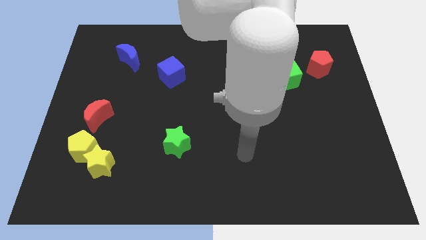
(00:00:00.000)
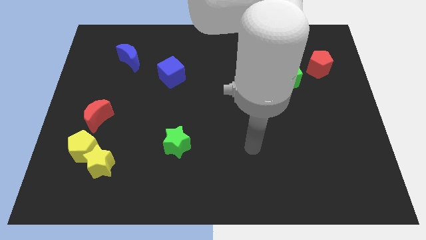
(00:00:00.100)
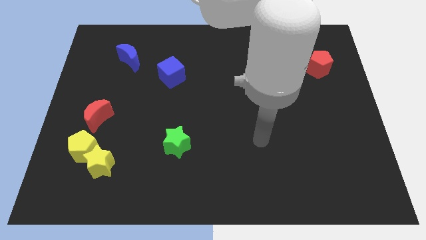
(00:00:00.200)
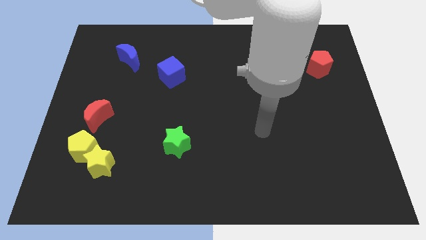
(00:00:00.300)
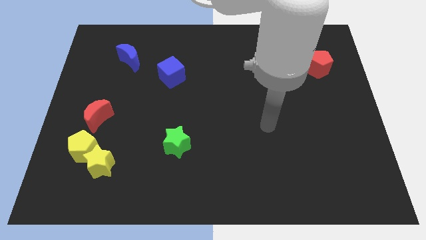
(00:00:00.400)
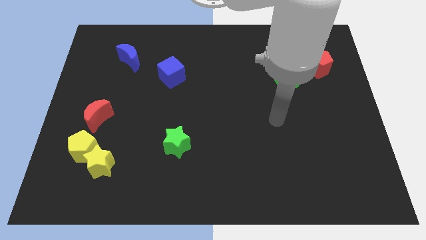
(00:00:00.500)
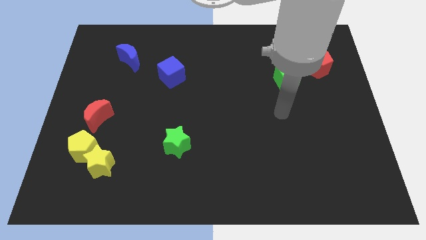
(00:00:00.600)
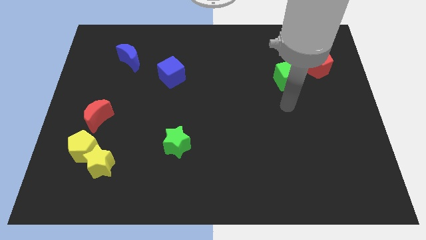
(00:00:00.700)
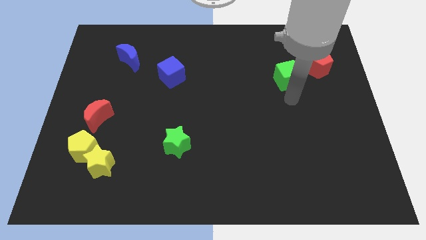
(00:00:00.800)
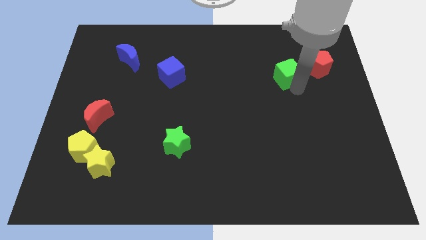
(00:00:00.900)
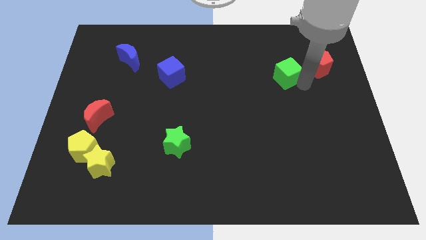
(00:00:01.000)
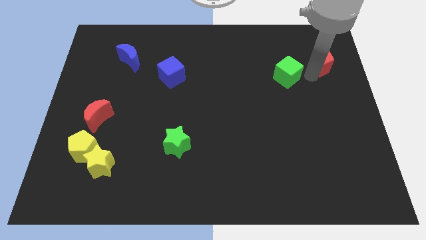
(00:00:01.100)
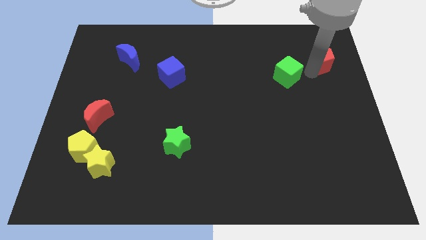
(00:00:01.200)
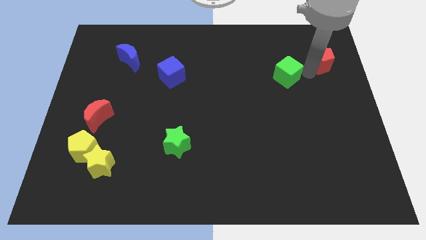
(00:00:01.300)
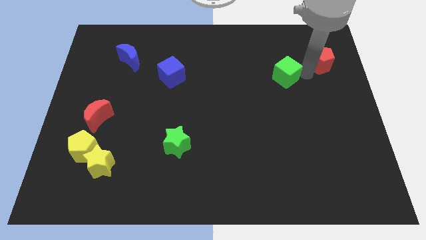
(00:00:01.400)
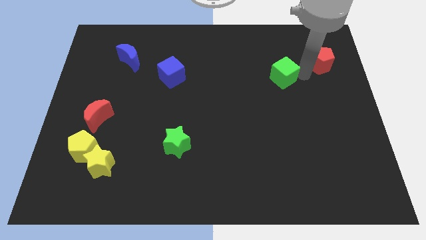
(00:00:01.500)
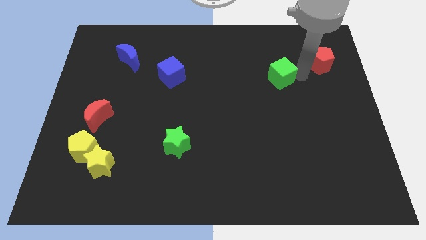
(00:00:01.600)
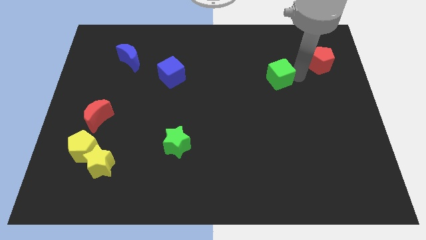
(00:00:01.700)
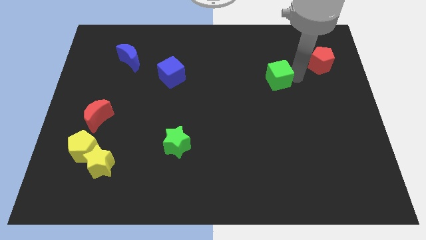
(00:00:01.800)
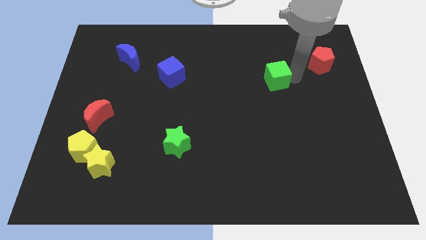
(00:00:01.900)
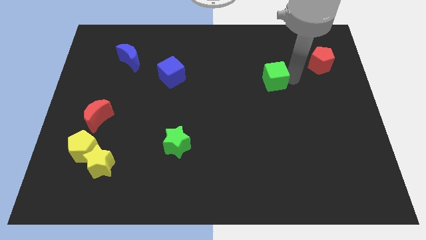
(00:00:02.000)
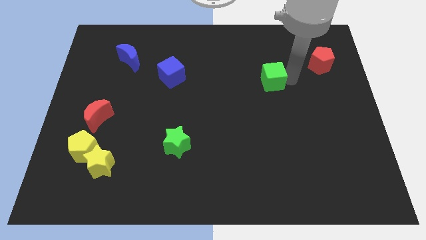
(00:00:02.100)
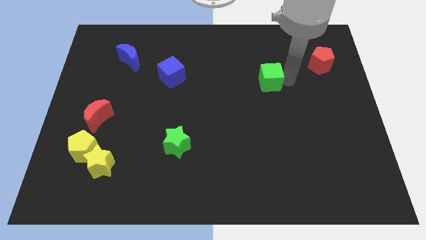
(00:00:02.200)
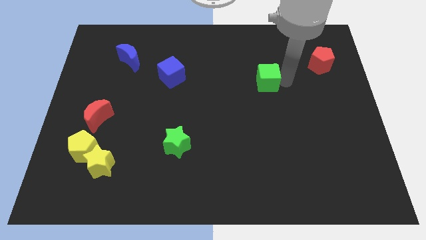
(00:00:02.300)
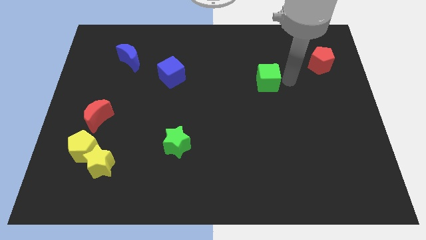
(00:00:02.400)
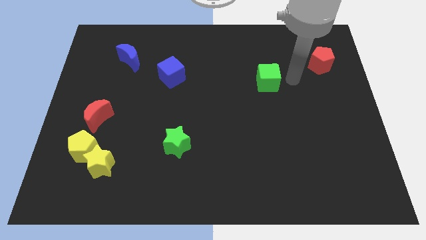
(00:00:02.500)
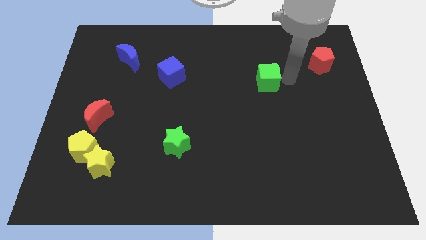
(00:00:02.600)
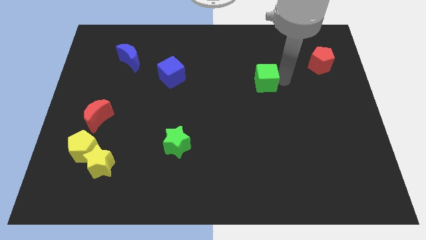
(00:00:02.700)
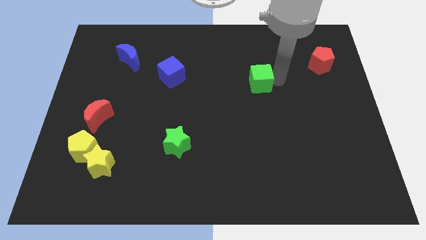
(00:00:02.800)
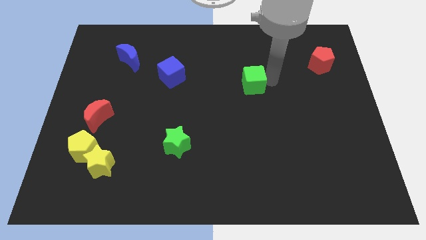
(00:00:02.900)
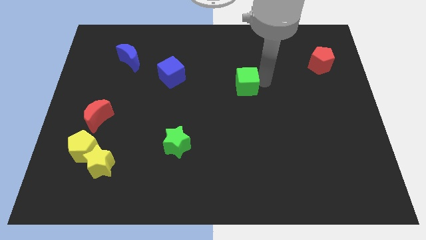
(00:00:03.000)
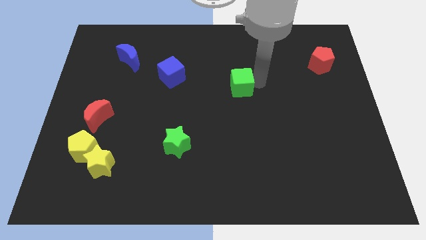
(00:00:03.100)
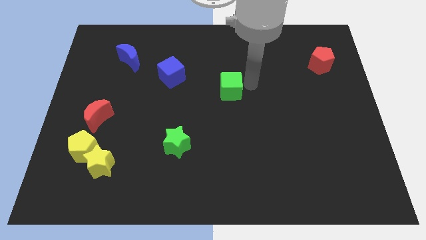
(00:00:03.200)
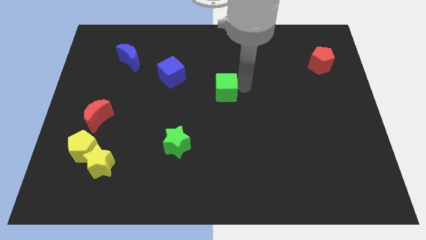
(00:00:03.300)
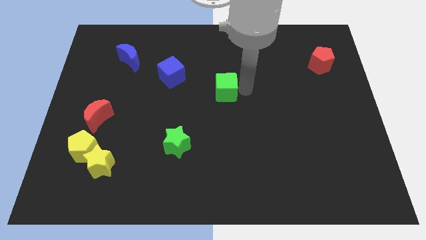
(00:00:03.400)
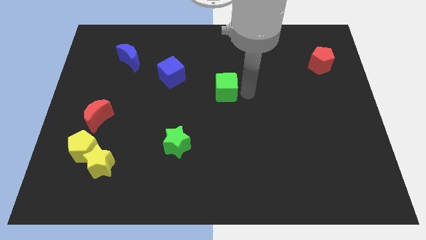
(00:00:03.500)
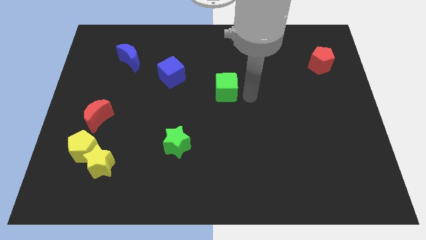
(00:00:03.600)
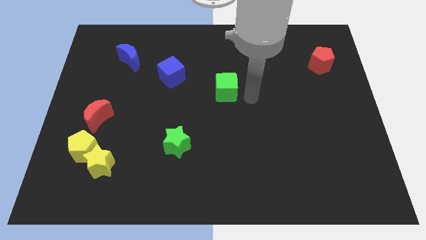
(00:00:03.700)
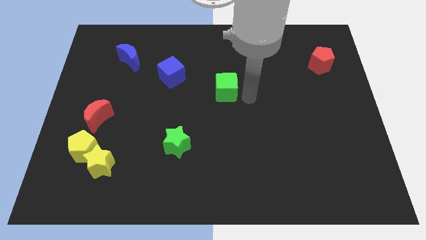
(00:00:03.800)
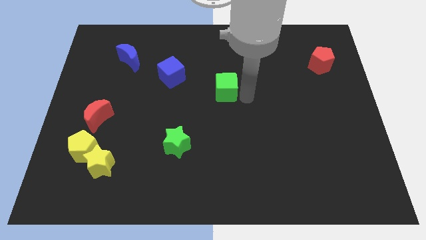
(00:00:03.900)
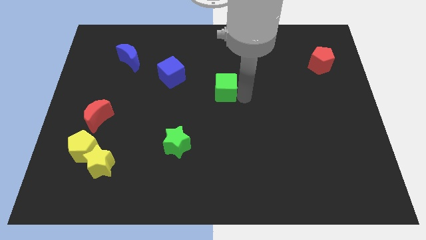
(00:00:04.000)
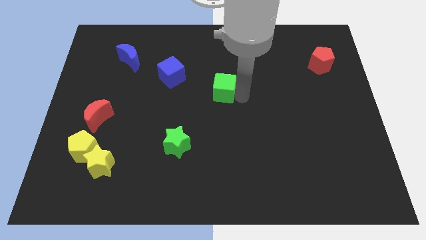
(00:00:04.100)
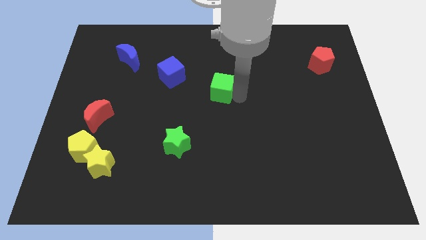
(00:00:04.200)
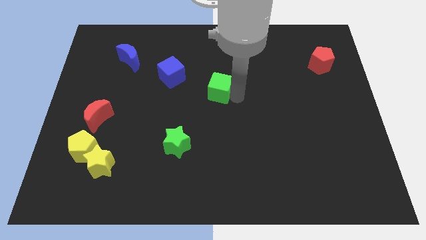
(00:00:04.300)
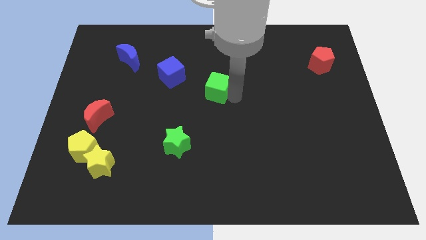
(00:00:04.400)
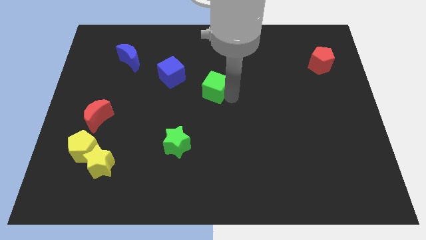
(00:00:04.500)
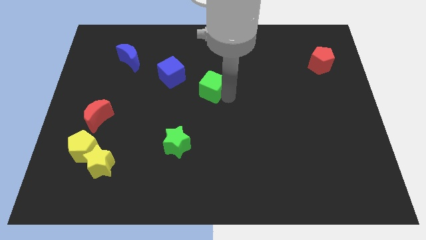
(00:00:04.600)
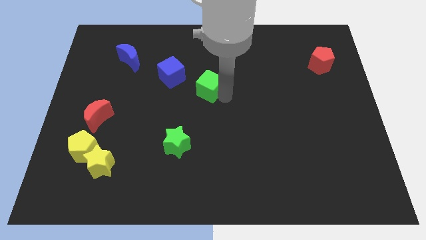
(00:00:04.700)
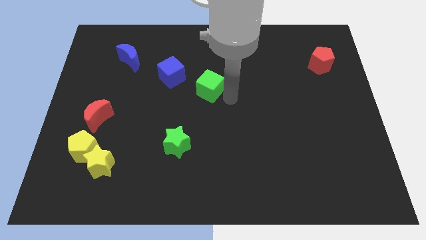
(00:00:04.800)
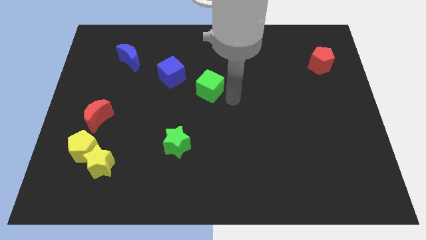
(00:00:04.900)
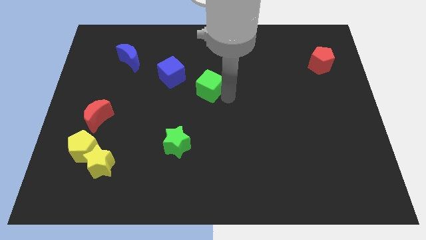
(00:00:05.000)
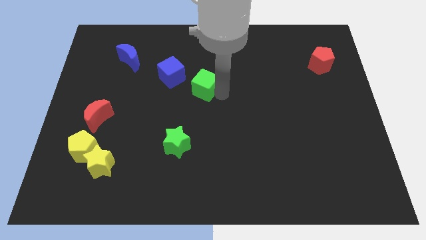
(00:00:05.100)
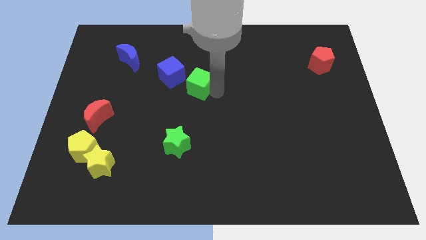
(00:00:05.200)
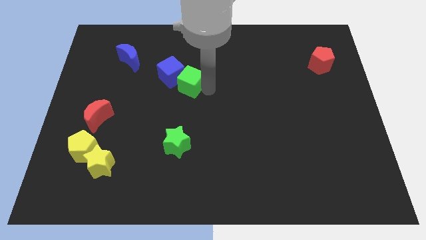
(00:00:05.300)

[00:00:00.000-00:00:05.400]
push the green cube close to the blue cube

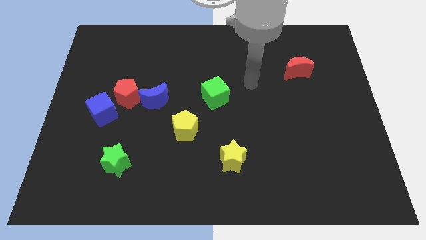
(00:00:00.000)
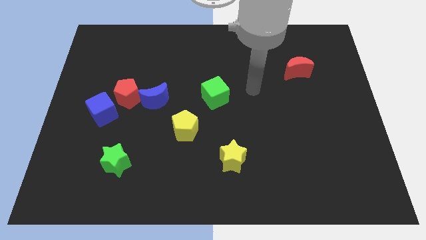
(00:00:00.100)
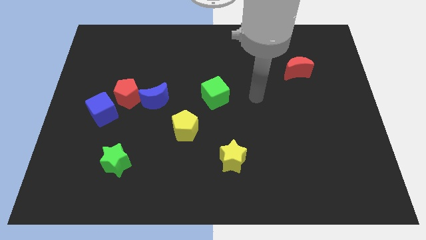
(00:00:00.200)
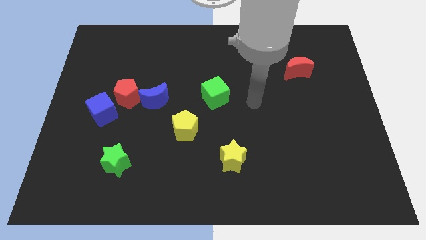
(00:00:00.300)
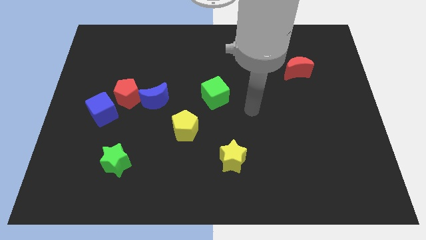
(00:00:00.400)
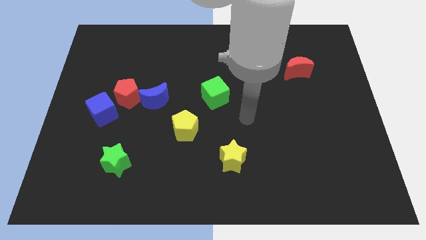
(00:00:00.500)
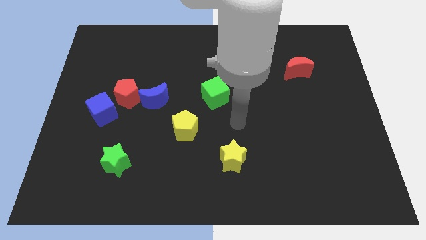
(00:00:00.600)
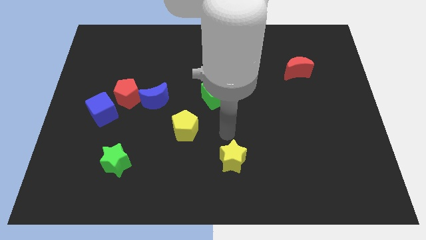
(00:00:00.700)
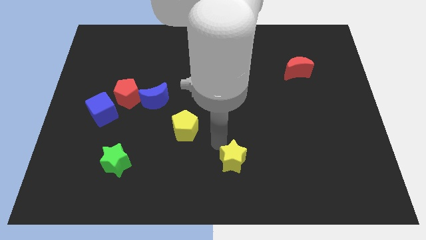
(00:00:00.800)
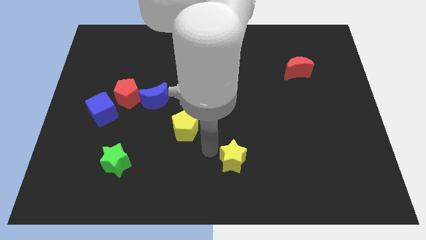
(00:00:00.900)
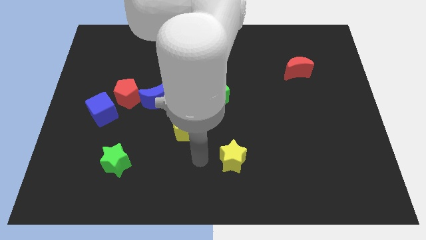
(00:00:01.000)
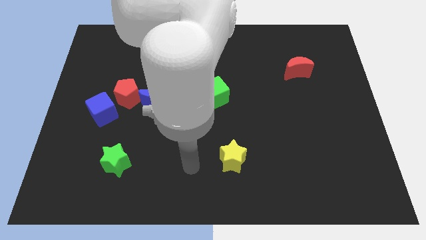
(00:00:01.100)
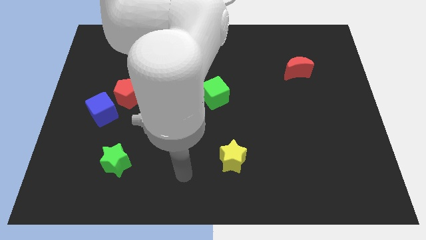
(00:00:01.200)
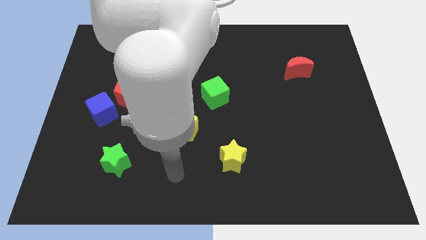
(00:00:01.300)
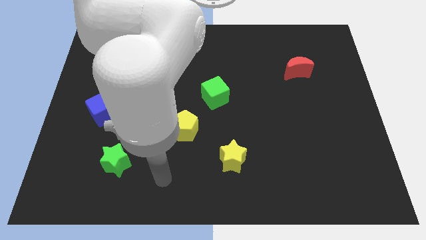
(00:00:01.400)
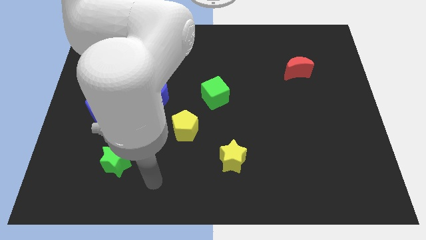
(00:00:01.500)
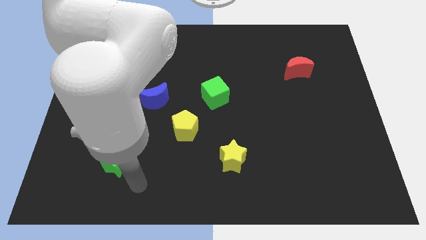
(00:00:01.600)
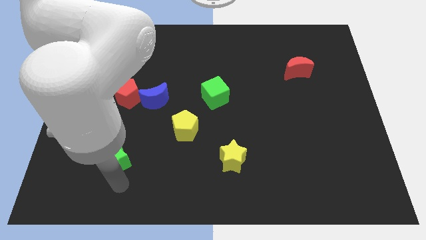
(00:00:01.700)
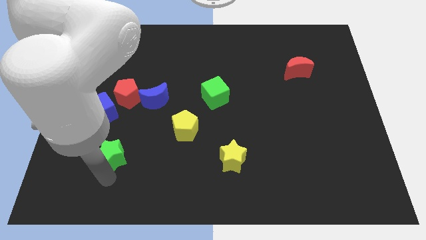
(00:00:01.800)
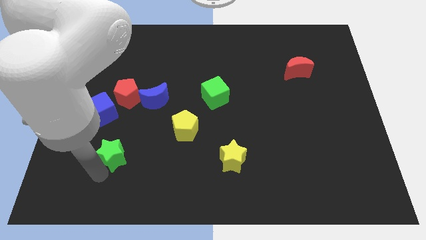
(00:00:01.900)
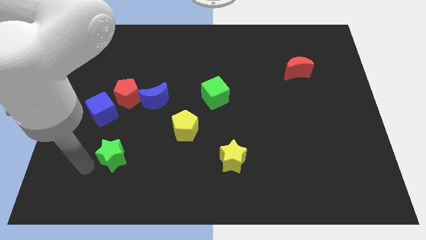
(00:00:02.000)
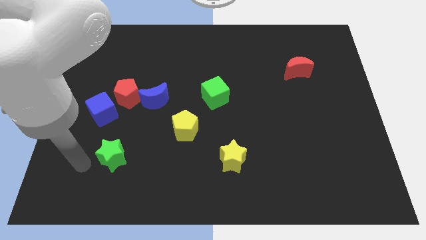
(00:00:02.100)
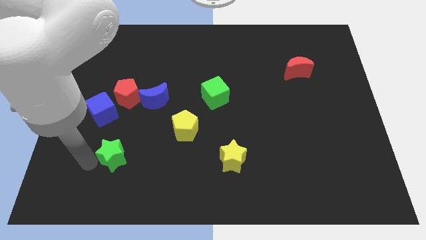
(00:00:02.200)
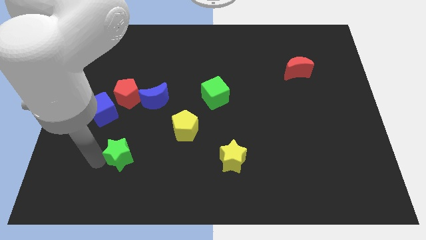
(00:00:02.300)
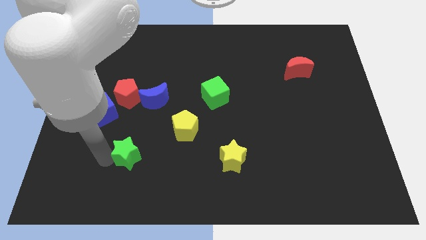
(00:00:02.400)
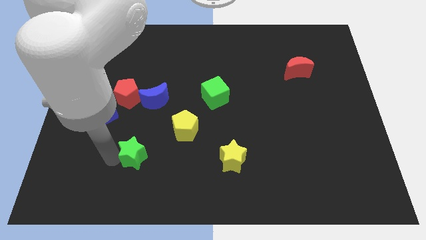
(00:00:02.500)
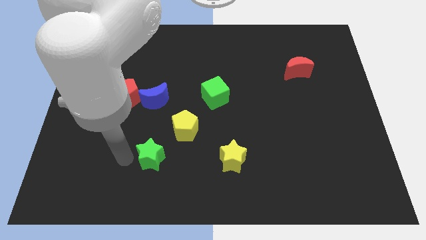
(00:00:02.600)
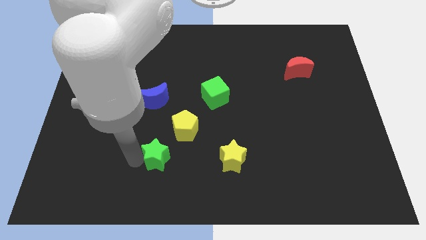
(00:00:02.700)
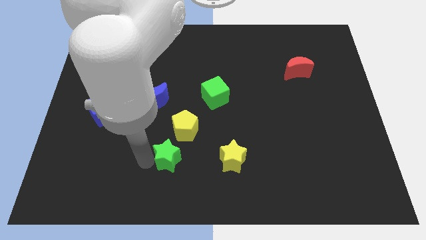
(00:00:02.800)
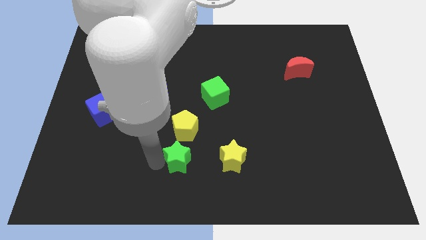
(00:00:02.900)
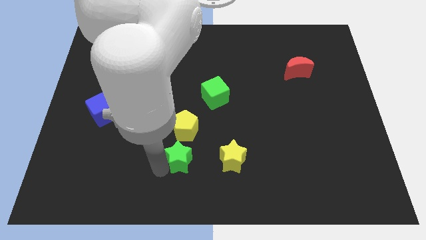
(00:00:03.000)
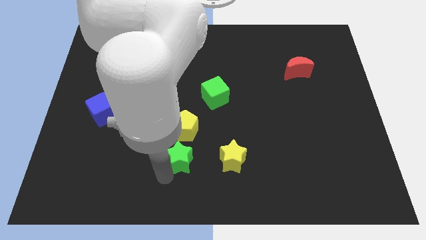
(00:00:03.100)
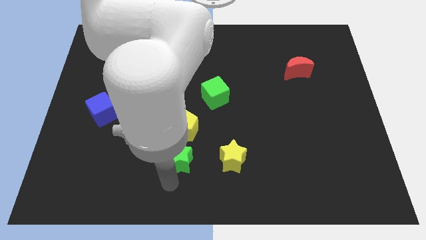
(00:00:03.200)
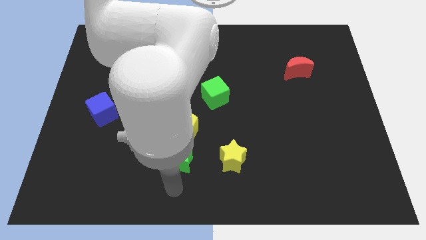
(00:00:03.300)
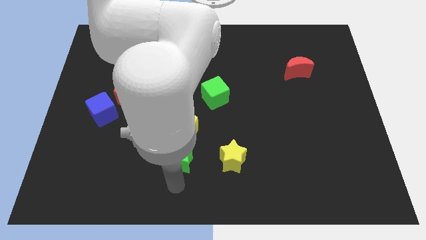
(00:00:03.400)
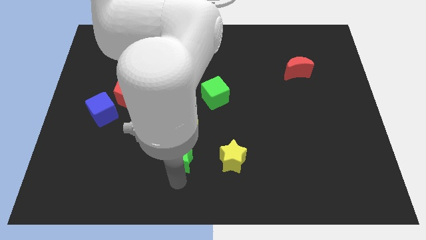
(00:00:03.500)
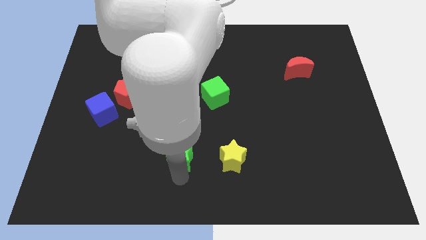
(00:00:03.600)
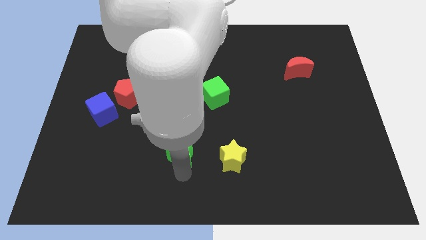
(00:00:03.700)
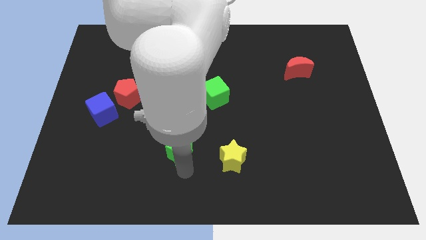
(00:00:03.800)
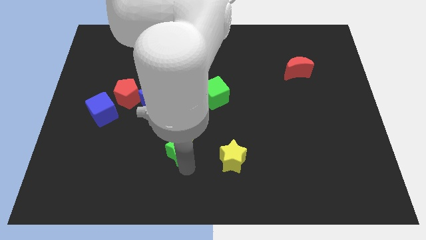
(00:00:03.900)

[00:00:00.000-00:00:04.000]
push the green star close to the yellow pentagon
